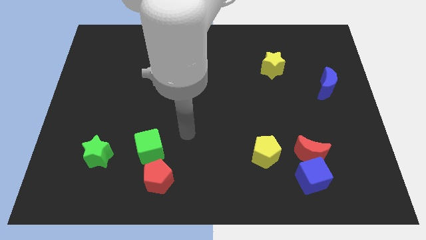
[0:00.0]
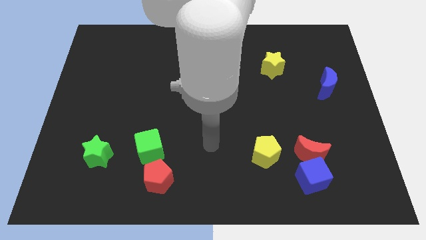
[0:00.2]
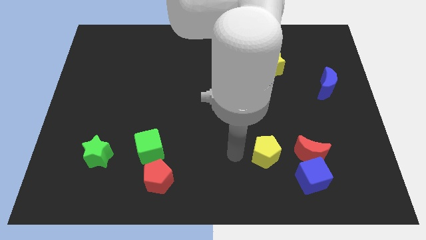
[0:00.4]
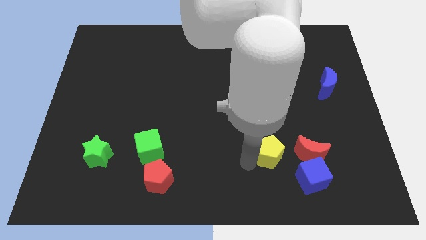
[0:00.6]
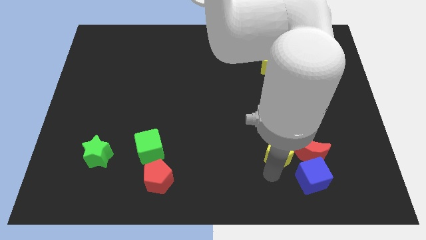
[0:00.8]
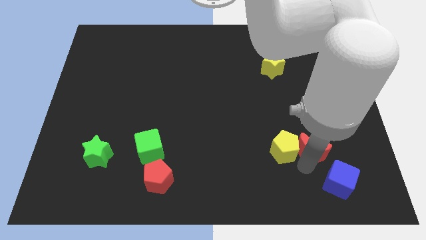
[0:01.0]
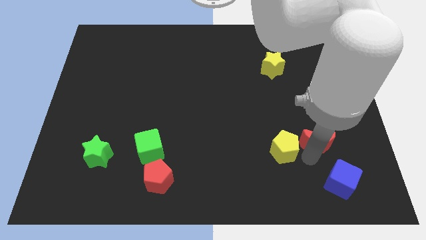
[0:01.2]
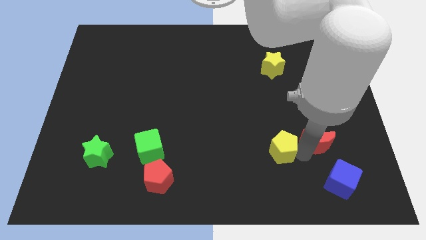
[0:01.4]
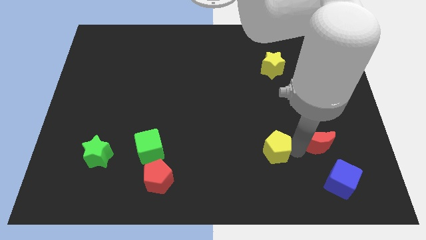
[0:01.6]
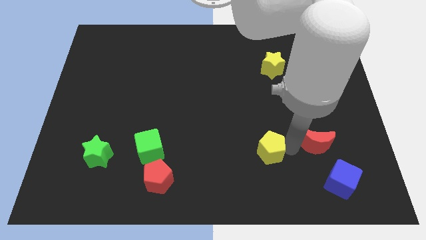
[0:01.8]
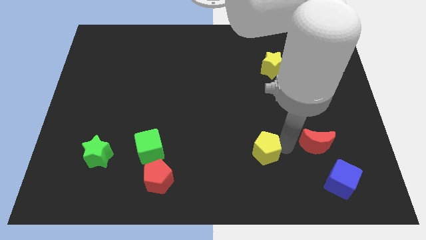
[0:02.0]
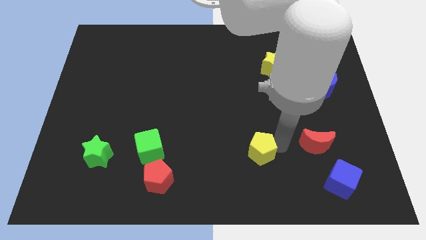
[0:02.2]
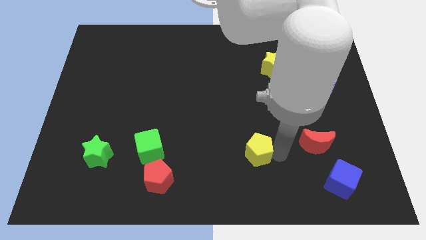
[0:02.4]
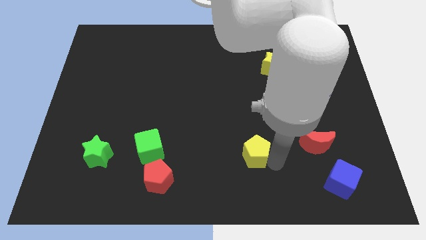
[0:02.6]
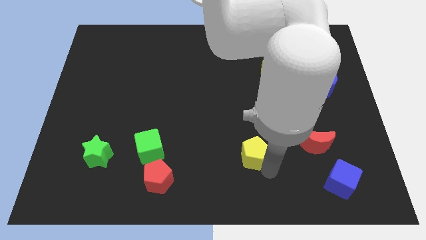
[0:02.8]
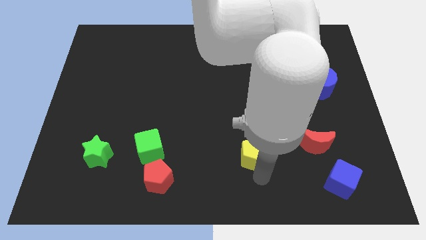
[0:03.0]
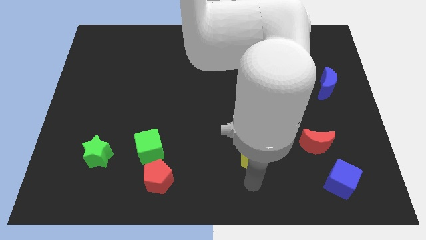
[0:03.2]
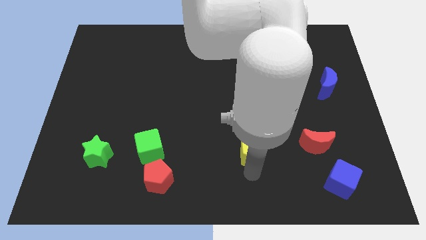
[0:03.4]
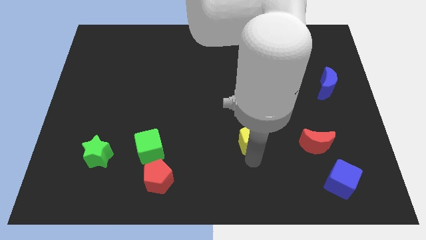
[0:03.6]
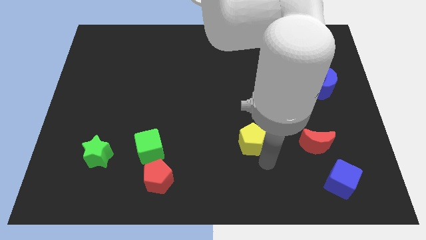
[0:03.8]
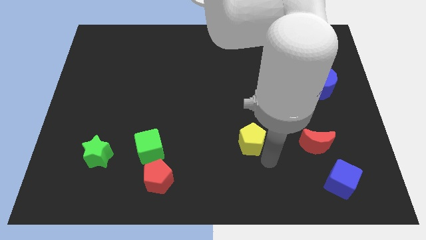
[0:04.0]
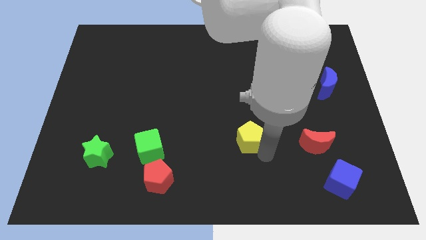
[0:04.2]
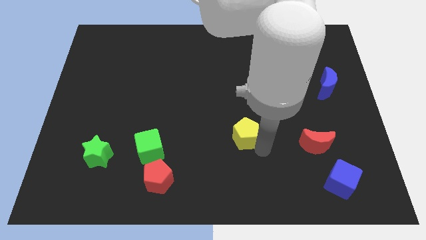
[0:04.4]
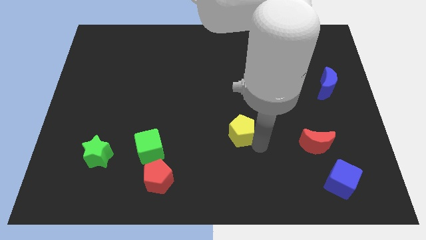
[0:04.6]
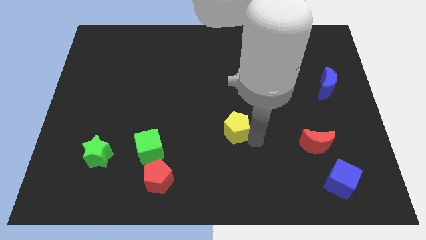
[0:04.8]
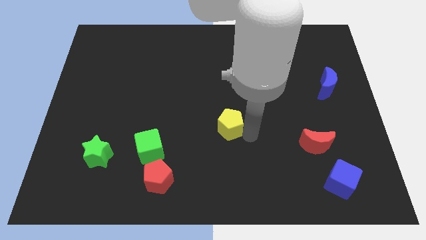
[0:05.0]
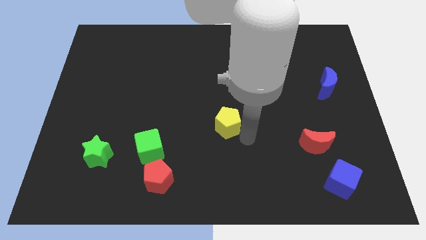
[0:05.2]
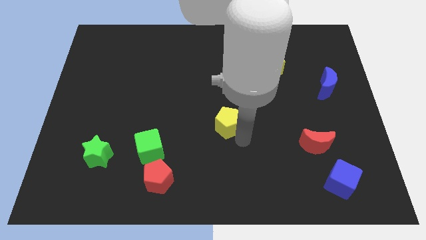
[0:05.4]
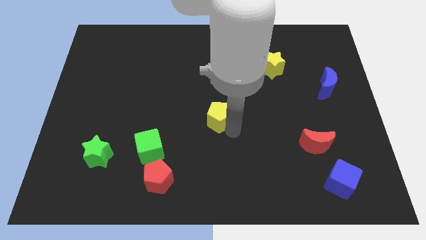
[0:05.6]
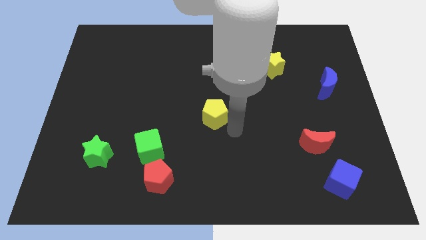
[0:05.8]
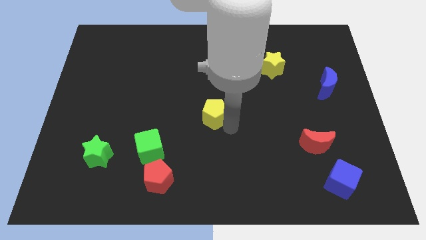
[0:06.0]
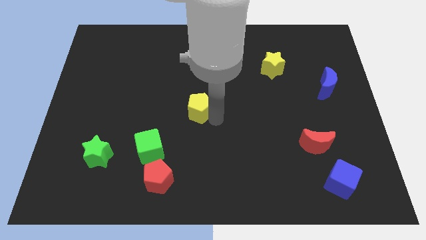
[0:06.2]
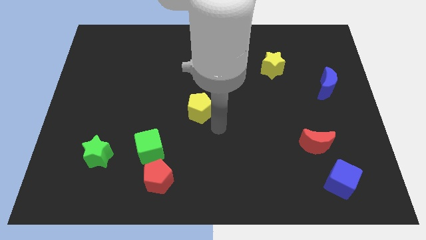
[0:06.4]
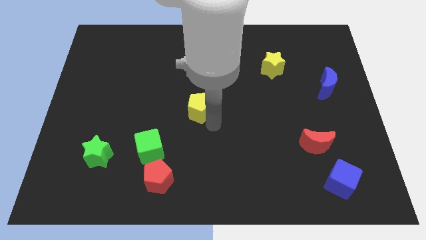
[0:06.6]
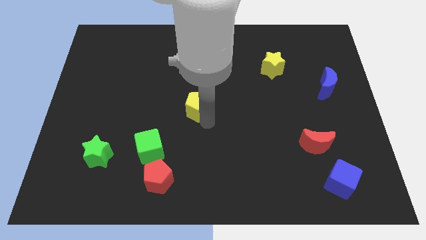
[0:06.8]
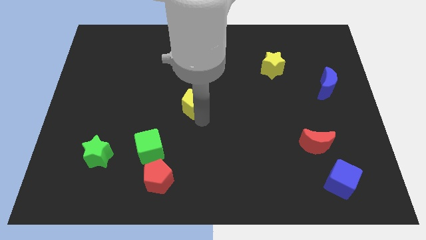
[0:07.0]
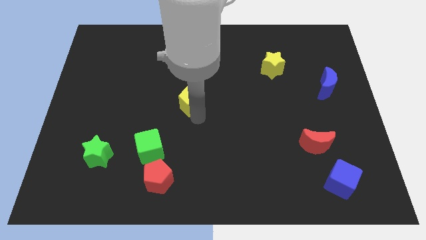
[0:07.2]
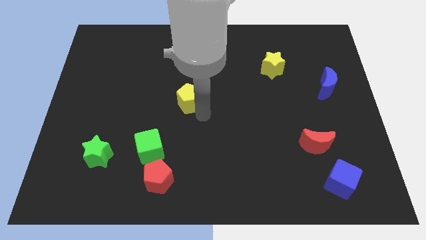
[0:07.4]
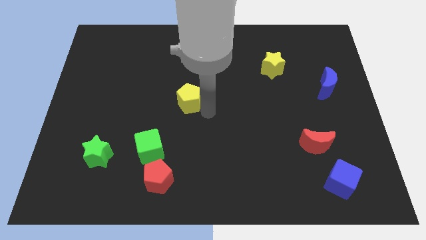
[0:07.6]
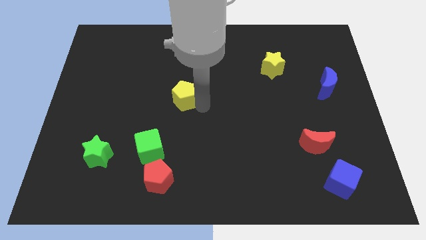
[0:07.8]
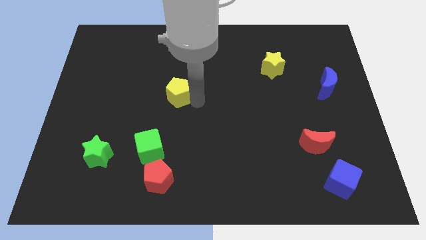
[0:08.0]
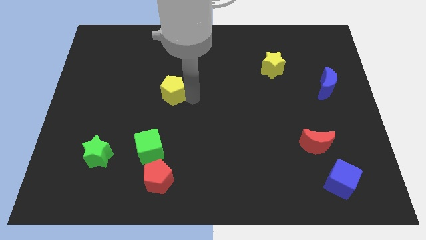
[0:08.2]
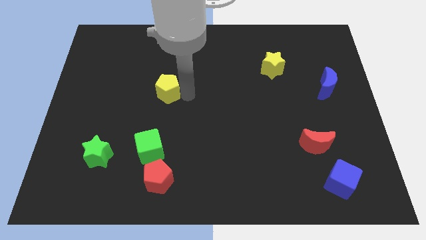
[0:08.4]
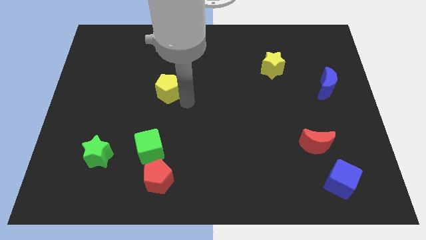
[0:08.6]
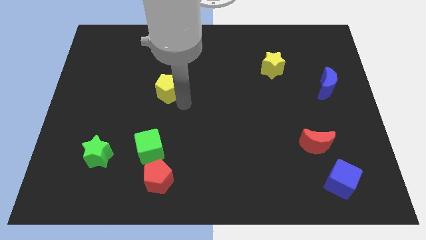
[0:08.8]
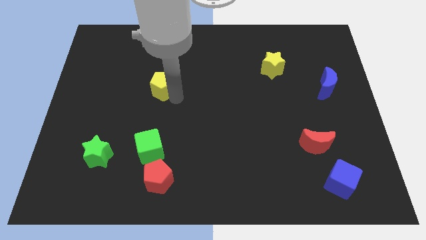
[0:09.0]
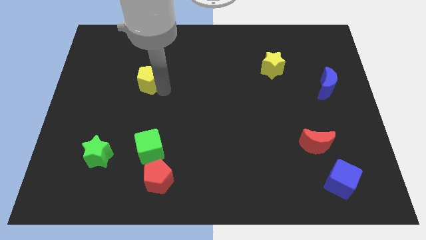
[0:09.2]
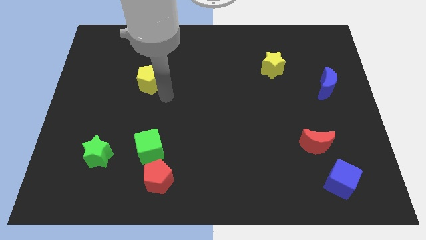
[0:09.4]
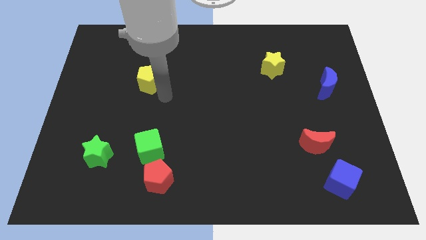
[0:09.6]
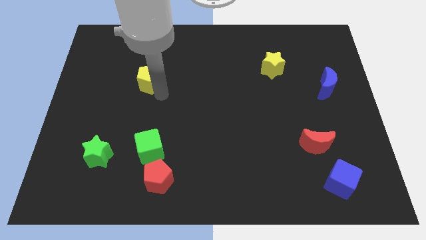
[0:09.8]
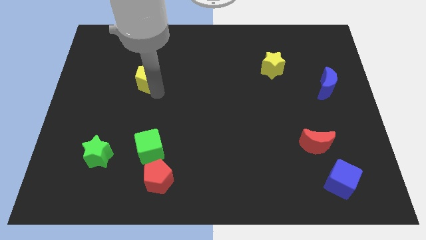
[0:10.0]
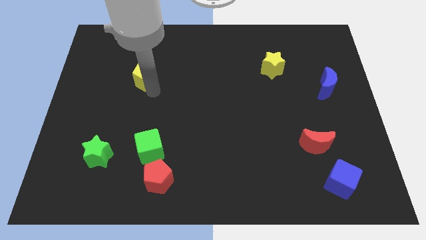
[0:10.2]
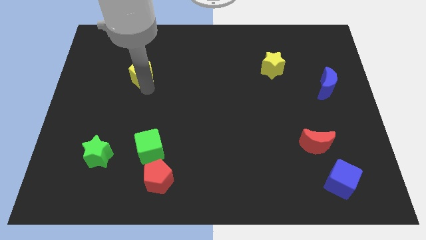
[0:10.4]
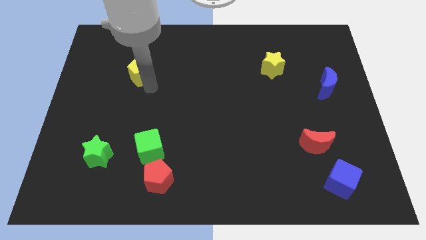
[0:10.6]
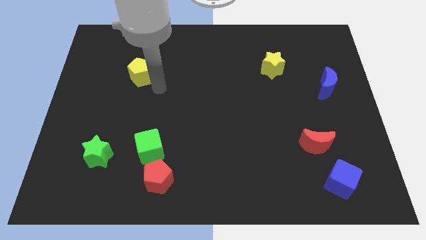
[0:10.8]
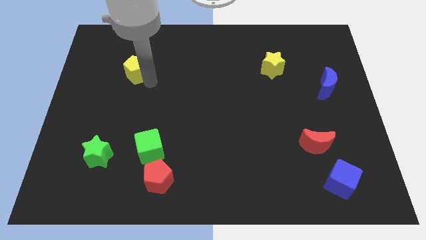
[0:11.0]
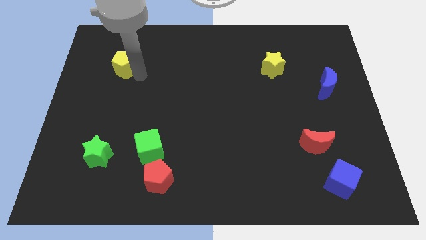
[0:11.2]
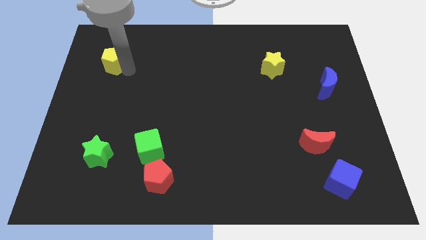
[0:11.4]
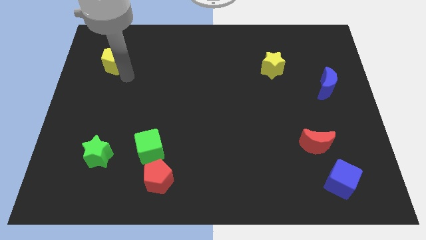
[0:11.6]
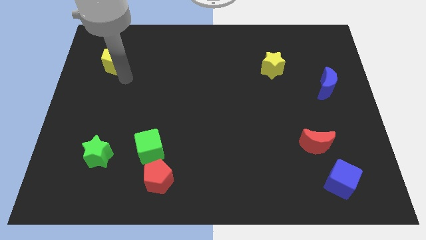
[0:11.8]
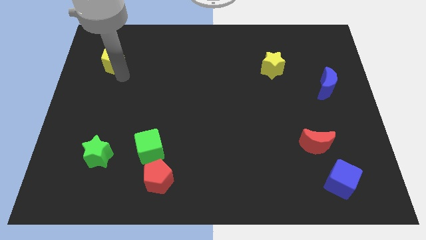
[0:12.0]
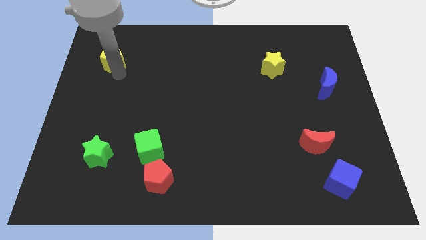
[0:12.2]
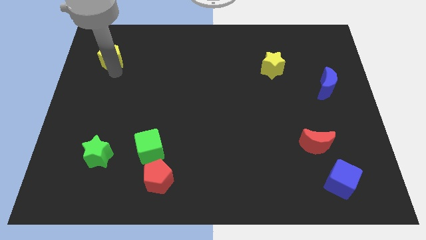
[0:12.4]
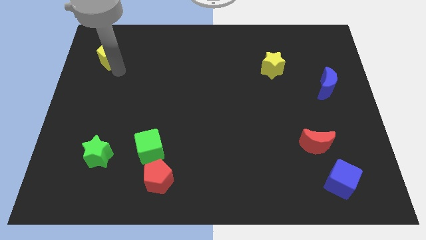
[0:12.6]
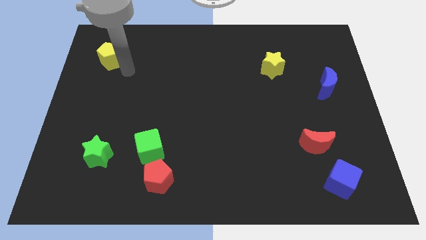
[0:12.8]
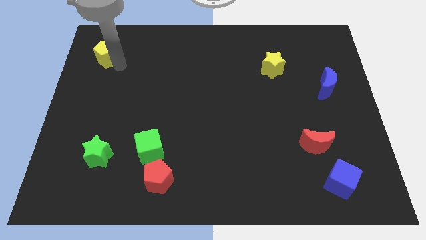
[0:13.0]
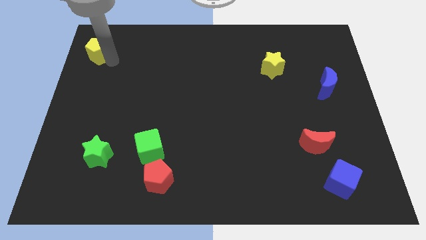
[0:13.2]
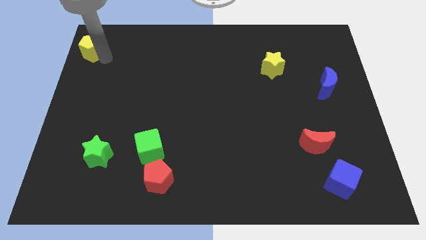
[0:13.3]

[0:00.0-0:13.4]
put the yellow pentagon to the upper left corner

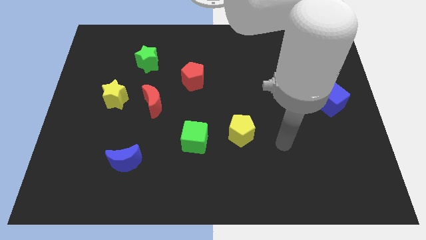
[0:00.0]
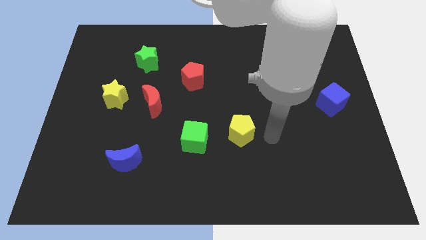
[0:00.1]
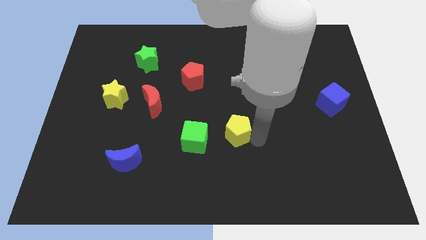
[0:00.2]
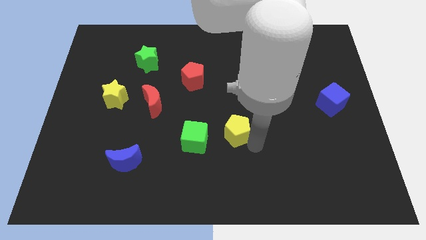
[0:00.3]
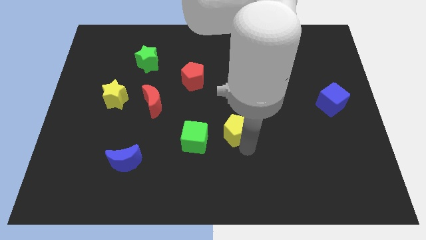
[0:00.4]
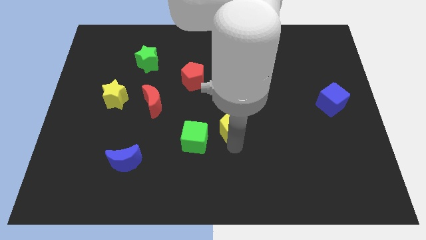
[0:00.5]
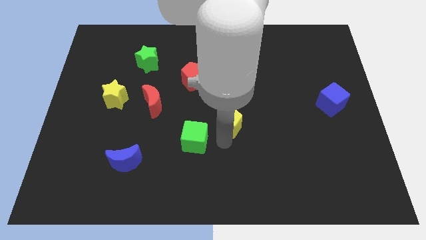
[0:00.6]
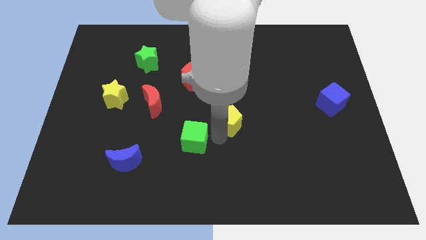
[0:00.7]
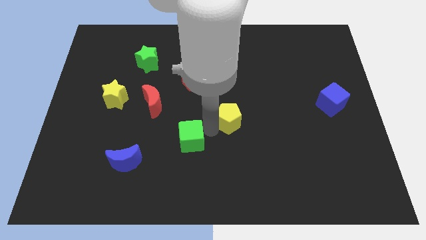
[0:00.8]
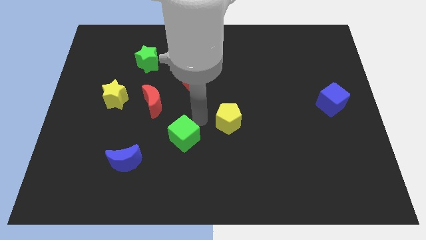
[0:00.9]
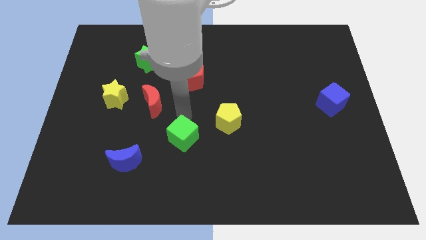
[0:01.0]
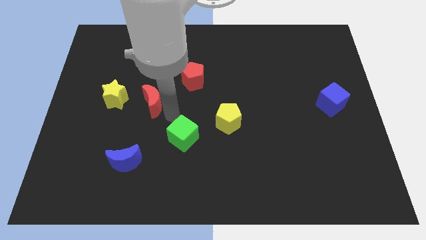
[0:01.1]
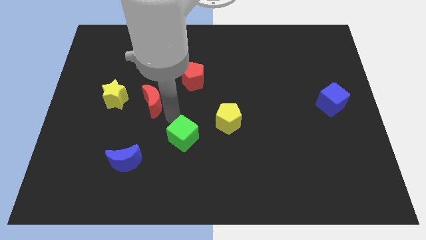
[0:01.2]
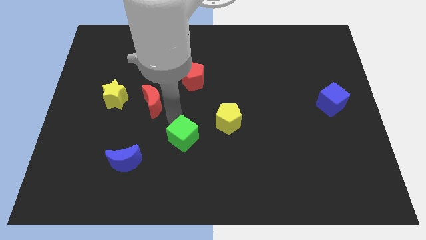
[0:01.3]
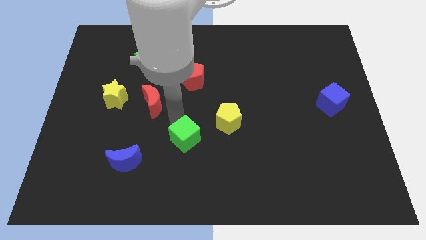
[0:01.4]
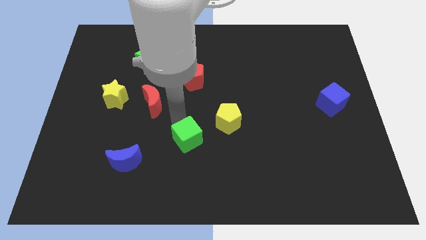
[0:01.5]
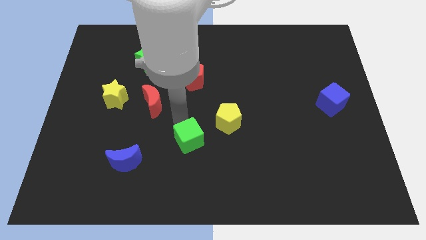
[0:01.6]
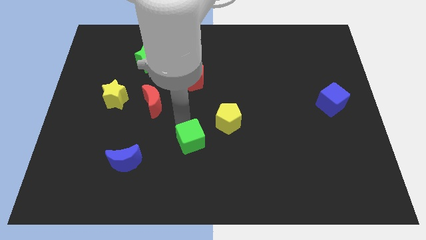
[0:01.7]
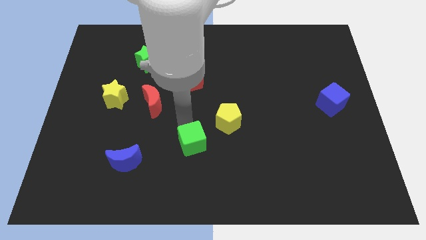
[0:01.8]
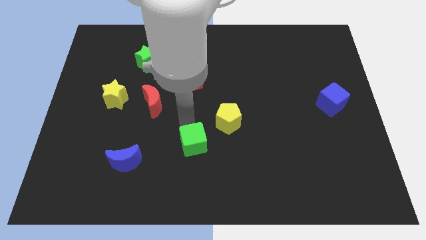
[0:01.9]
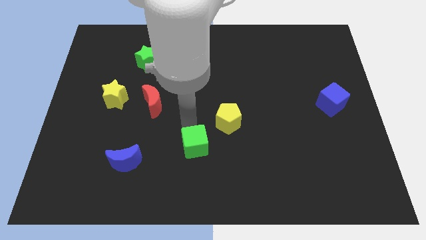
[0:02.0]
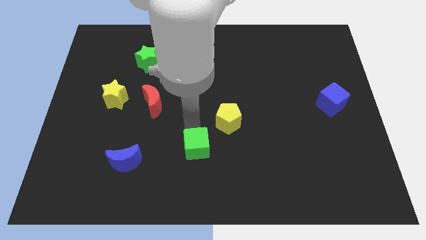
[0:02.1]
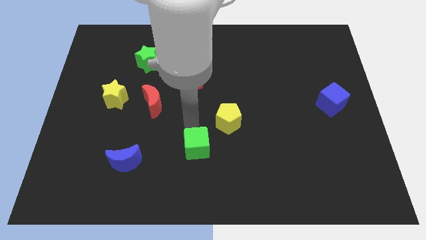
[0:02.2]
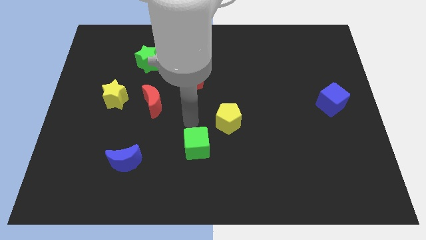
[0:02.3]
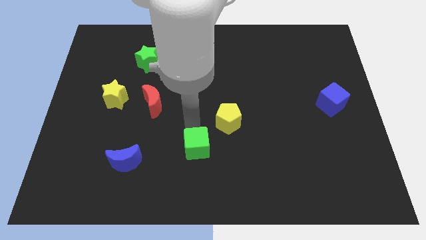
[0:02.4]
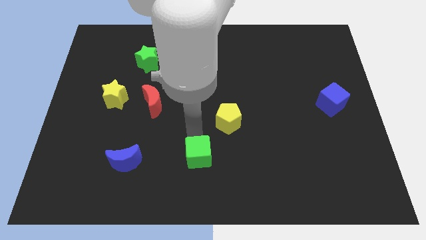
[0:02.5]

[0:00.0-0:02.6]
slide the green cube to the bottom
